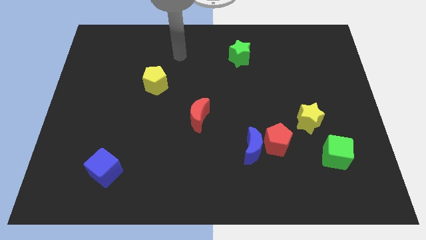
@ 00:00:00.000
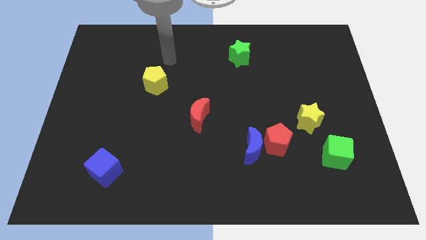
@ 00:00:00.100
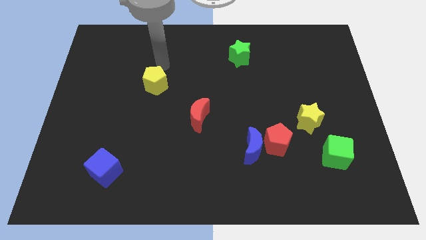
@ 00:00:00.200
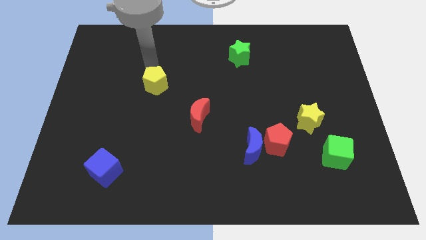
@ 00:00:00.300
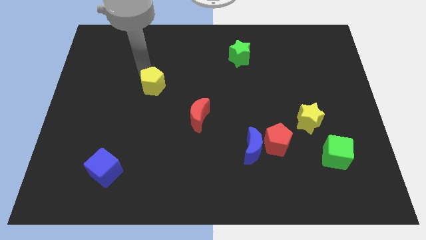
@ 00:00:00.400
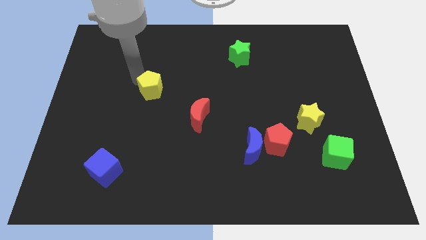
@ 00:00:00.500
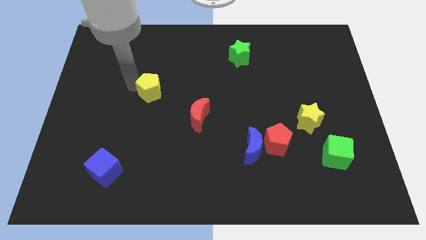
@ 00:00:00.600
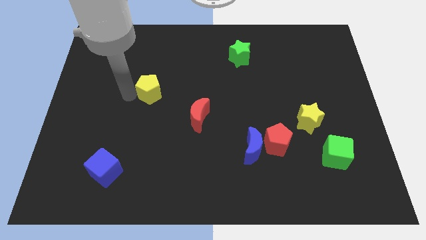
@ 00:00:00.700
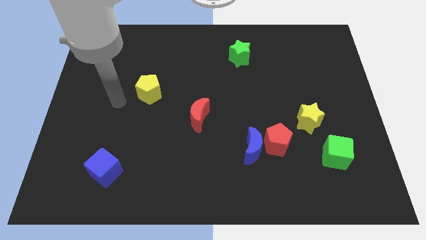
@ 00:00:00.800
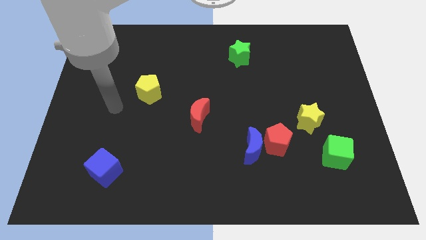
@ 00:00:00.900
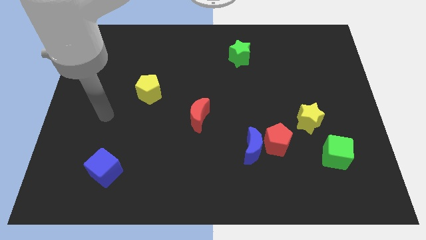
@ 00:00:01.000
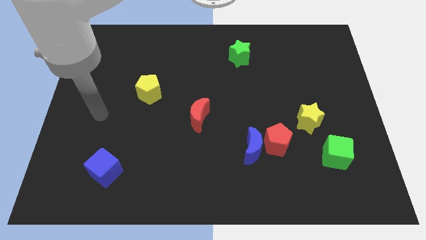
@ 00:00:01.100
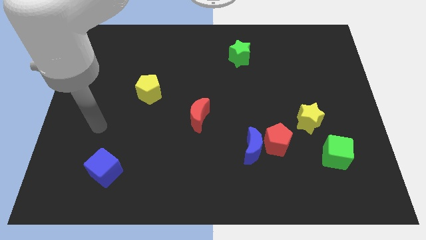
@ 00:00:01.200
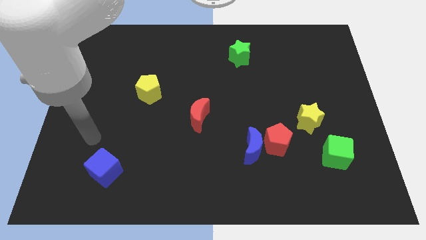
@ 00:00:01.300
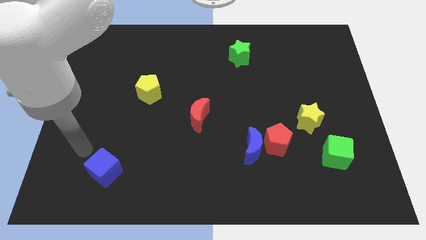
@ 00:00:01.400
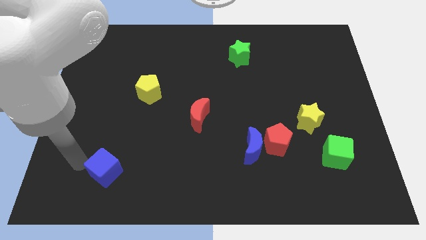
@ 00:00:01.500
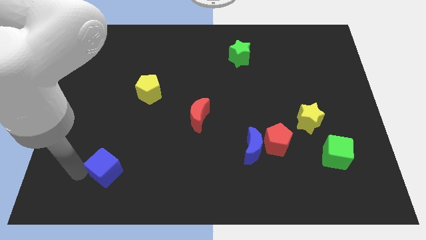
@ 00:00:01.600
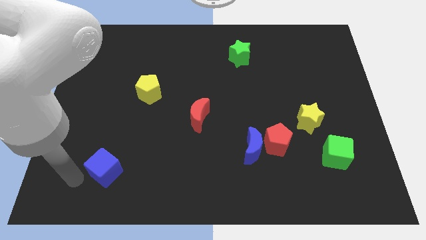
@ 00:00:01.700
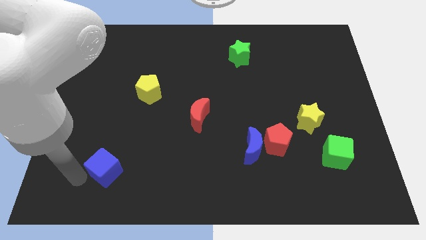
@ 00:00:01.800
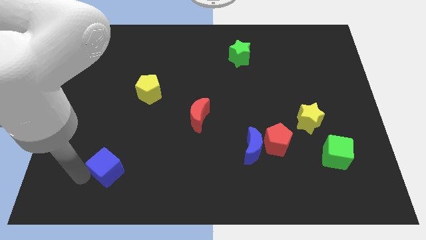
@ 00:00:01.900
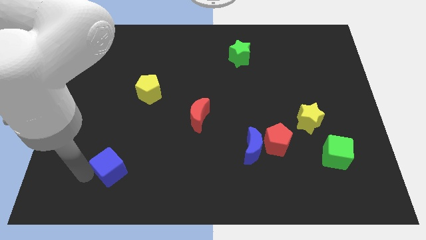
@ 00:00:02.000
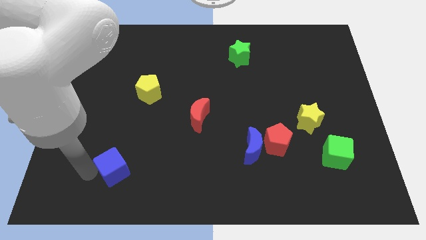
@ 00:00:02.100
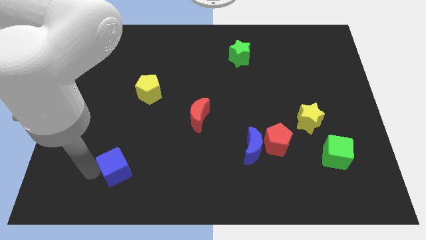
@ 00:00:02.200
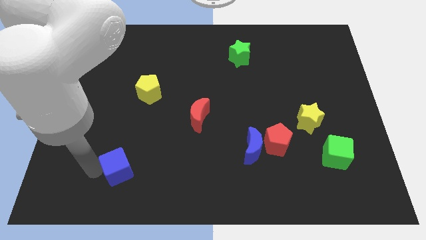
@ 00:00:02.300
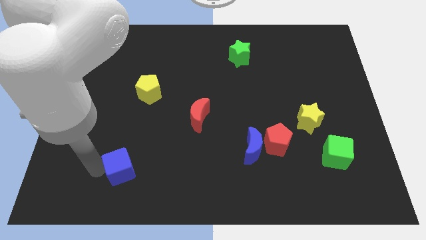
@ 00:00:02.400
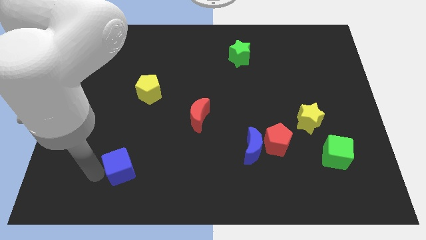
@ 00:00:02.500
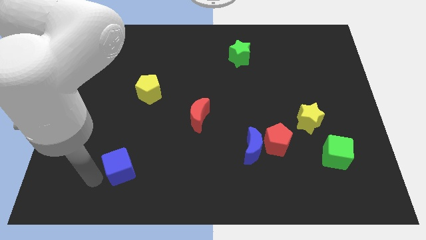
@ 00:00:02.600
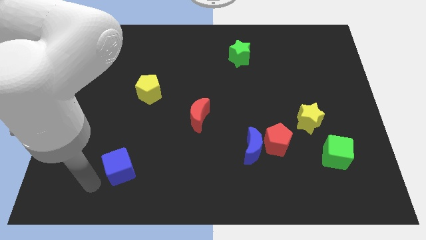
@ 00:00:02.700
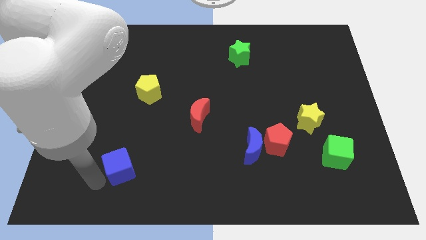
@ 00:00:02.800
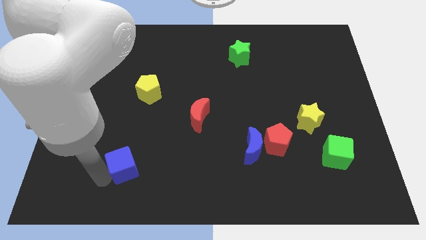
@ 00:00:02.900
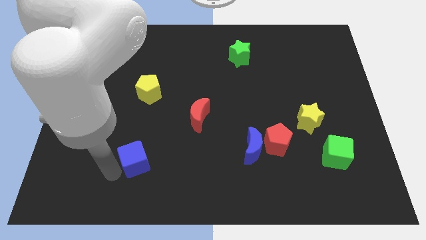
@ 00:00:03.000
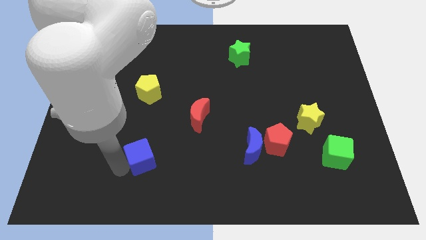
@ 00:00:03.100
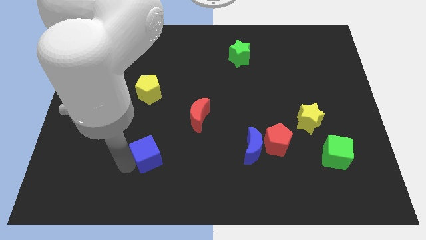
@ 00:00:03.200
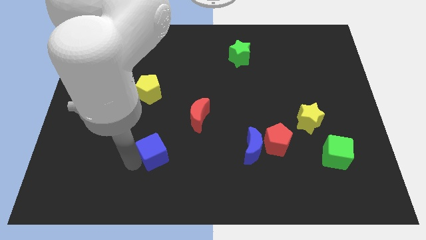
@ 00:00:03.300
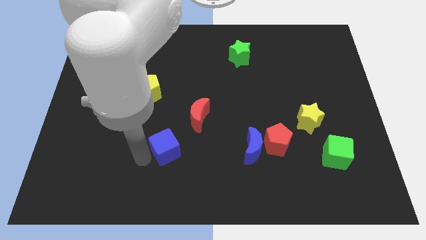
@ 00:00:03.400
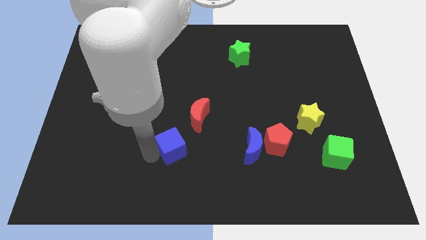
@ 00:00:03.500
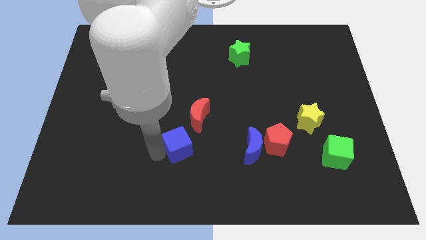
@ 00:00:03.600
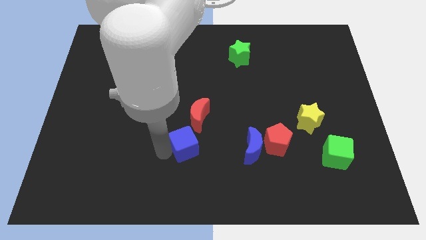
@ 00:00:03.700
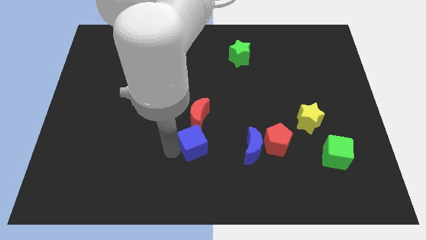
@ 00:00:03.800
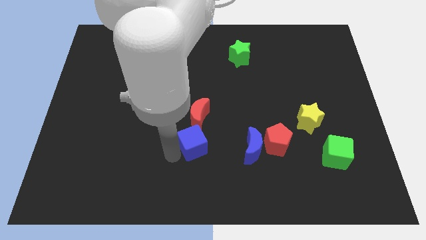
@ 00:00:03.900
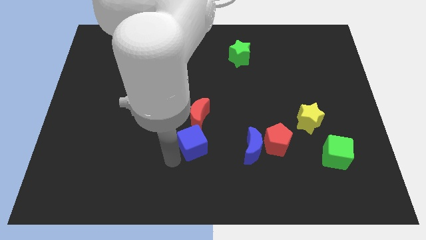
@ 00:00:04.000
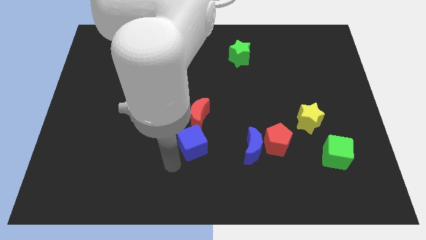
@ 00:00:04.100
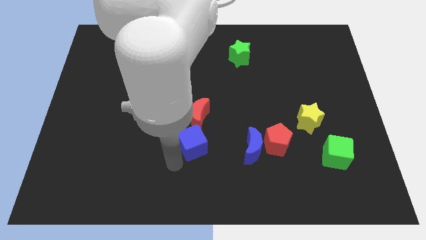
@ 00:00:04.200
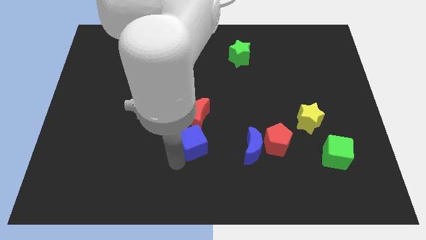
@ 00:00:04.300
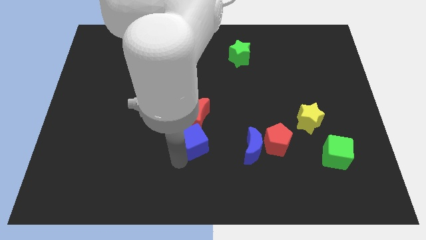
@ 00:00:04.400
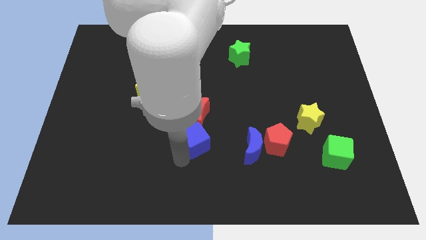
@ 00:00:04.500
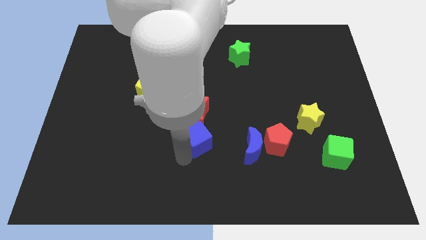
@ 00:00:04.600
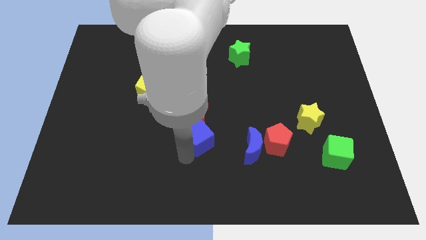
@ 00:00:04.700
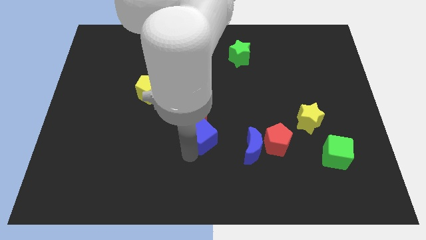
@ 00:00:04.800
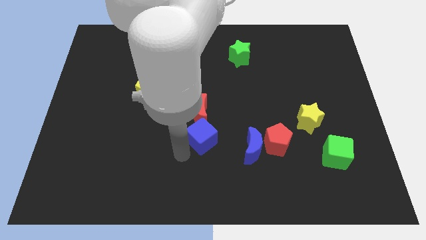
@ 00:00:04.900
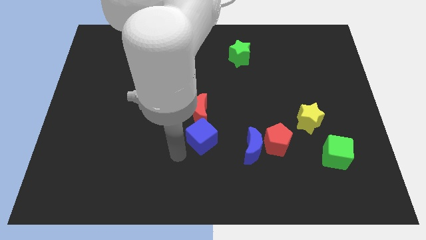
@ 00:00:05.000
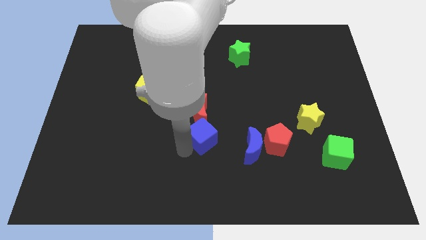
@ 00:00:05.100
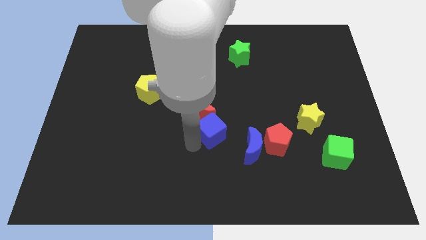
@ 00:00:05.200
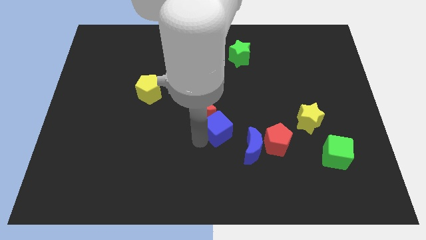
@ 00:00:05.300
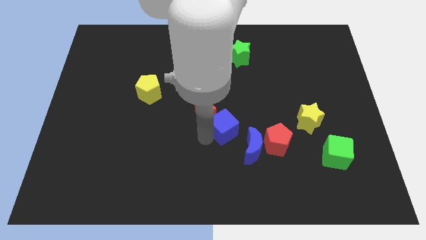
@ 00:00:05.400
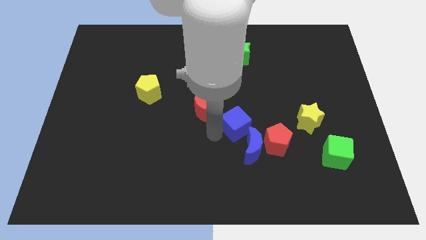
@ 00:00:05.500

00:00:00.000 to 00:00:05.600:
move the blue cube to the top of the blue moon

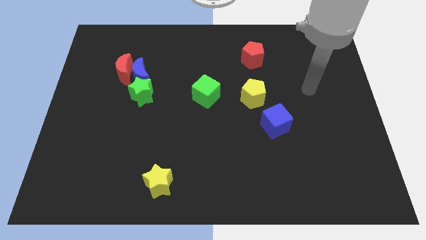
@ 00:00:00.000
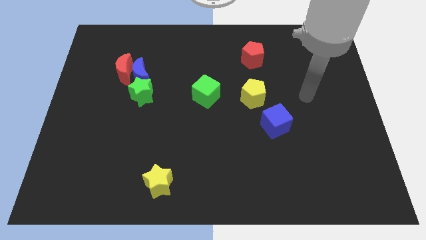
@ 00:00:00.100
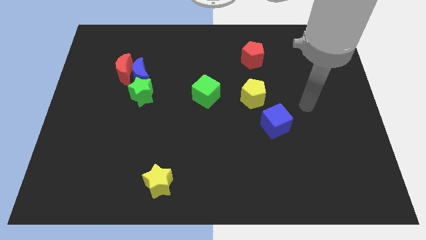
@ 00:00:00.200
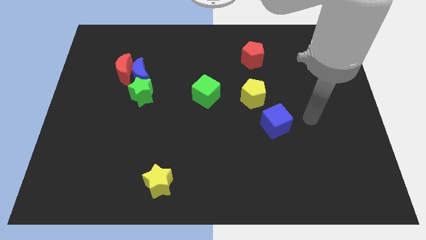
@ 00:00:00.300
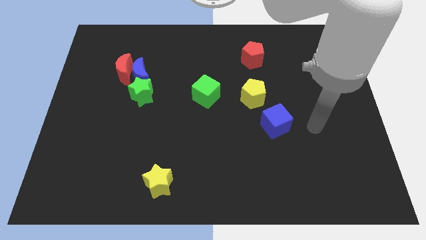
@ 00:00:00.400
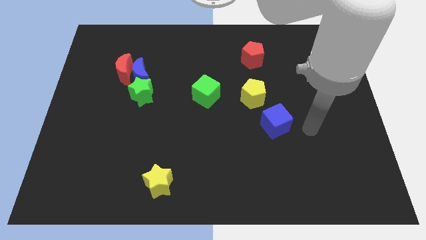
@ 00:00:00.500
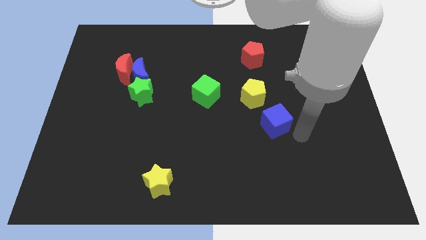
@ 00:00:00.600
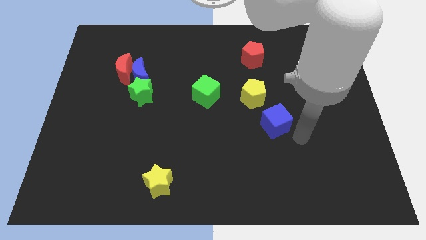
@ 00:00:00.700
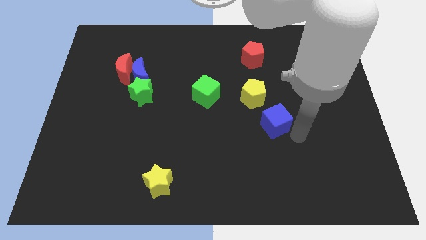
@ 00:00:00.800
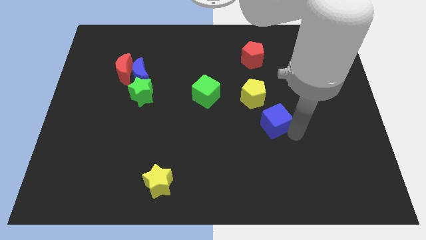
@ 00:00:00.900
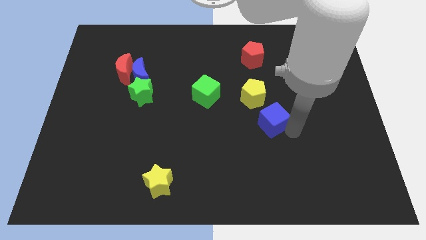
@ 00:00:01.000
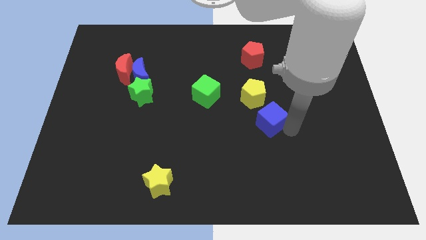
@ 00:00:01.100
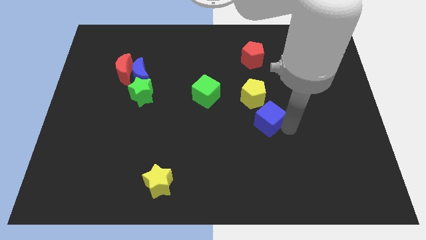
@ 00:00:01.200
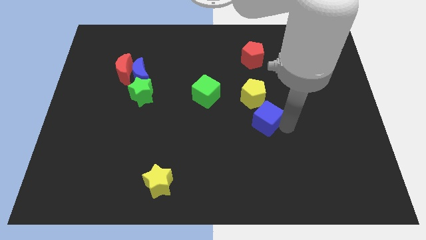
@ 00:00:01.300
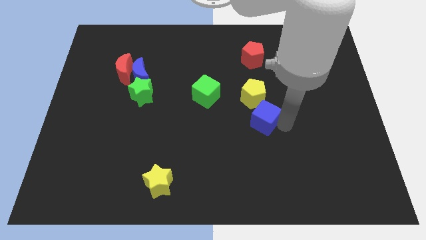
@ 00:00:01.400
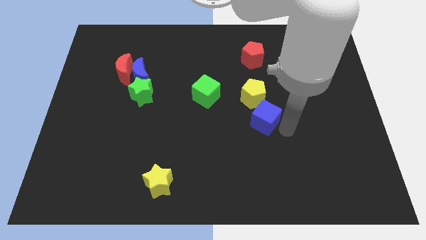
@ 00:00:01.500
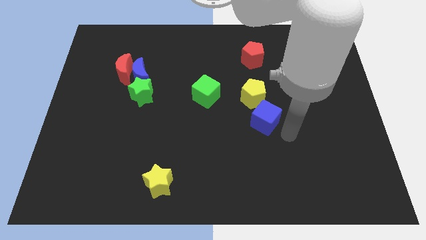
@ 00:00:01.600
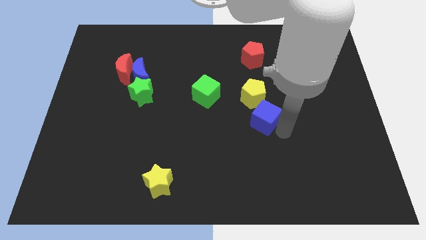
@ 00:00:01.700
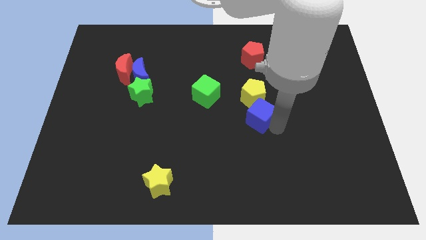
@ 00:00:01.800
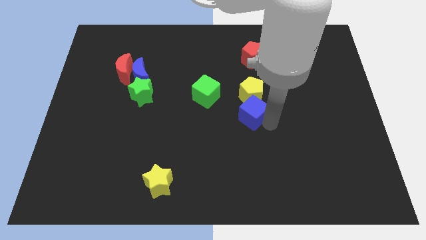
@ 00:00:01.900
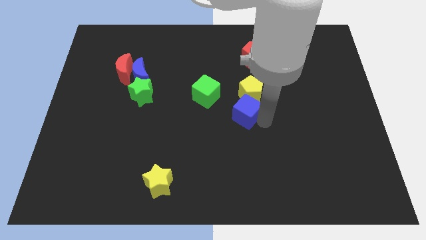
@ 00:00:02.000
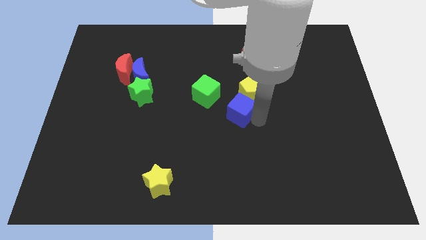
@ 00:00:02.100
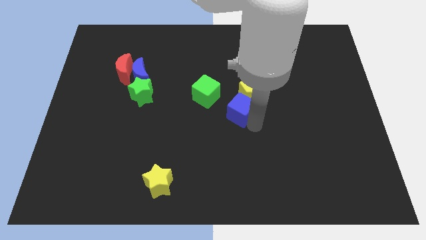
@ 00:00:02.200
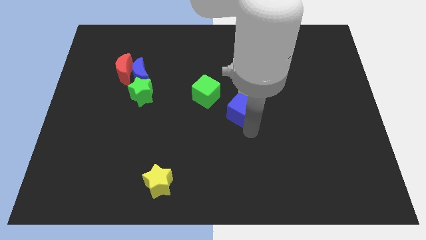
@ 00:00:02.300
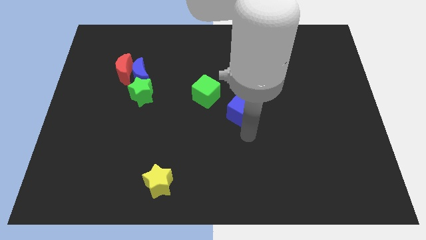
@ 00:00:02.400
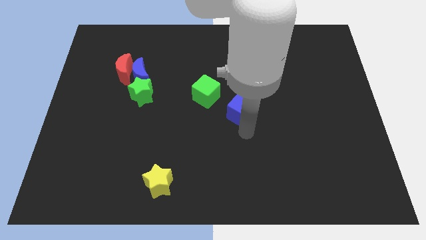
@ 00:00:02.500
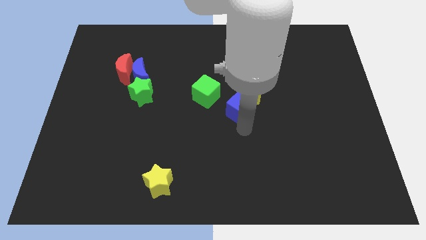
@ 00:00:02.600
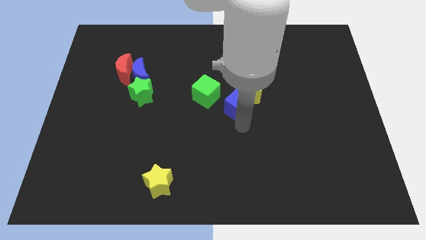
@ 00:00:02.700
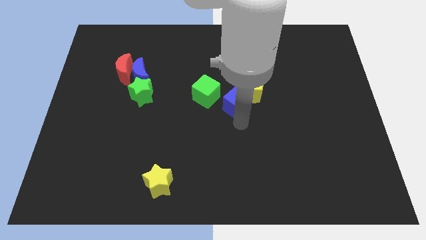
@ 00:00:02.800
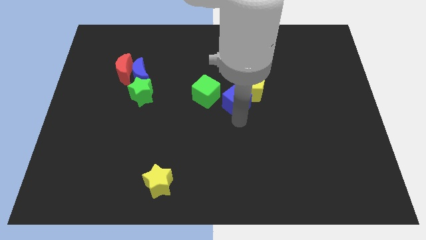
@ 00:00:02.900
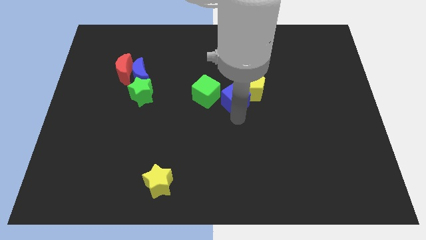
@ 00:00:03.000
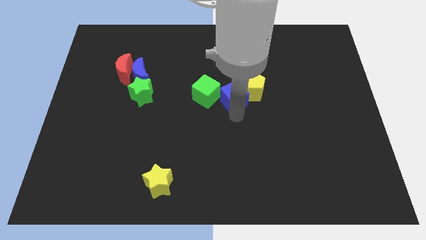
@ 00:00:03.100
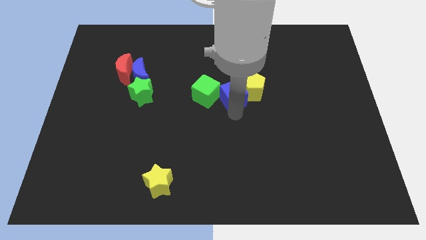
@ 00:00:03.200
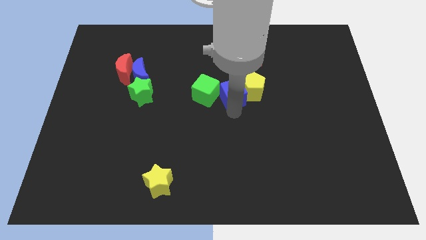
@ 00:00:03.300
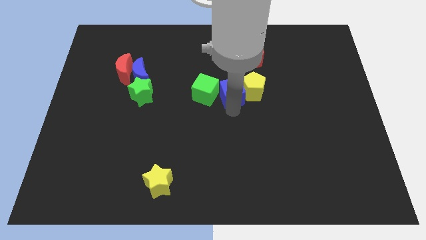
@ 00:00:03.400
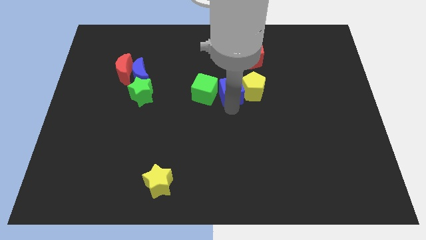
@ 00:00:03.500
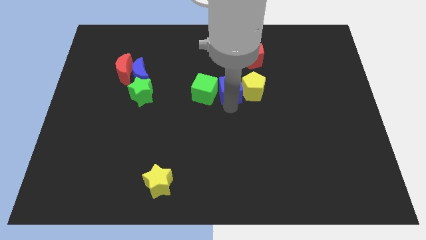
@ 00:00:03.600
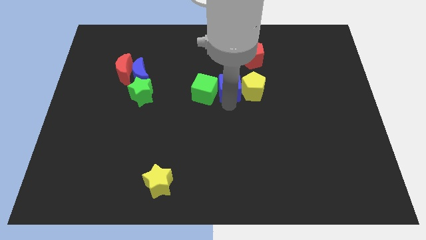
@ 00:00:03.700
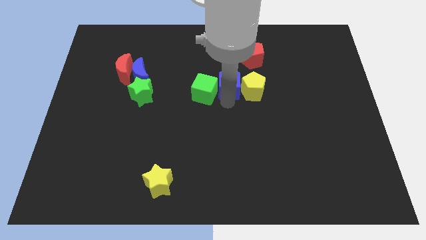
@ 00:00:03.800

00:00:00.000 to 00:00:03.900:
slide the blue cube diagonally down and to the left of the red pentagon
